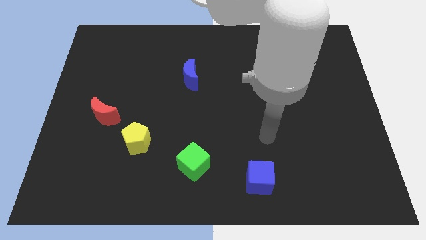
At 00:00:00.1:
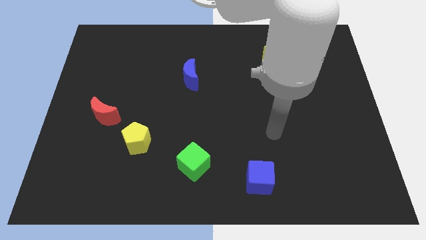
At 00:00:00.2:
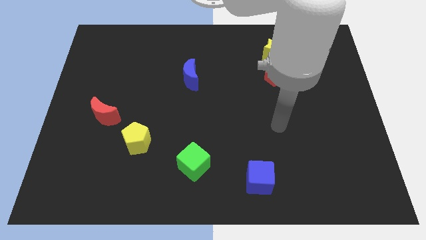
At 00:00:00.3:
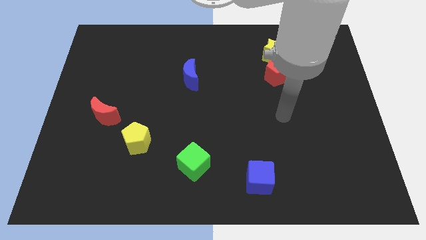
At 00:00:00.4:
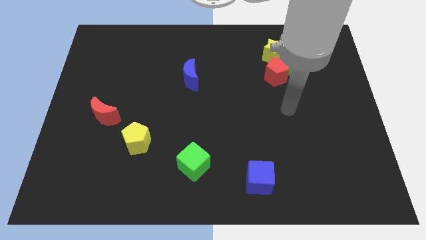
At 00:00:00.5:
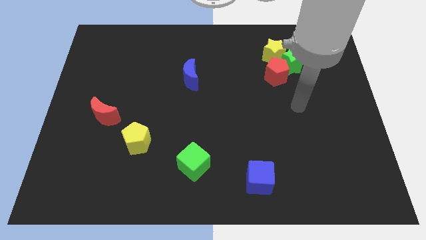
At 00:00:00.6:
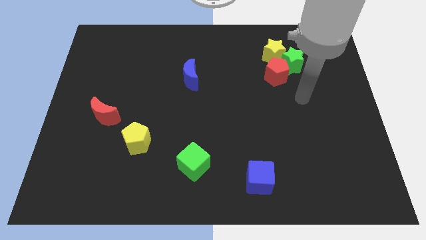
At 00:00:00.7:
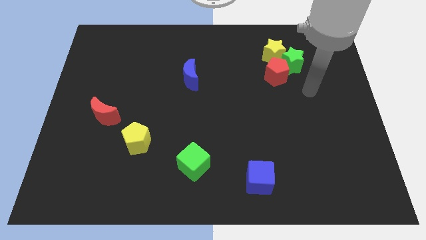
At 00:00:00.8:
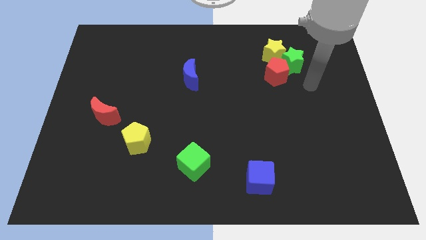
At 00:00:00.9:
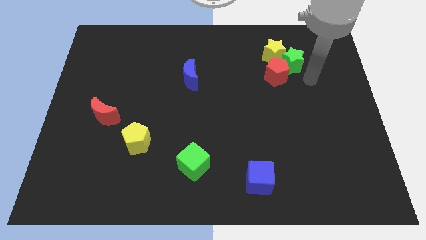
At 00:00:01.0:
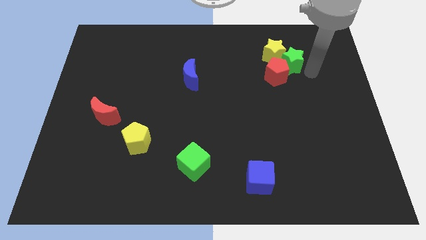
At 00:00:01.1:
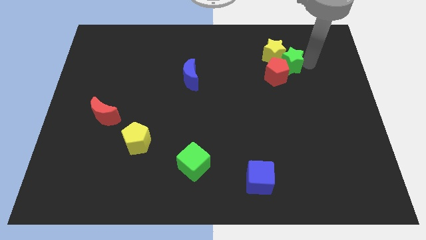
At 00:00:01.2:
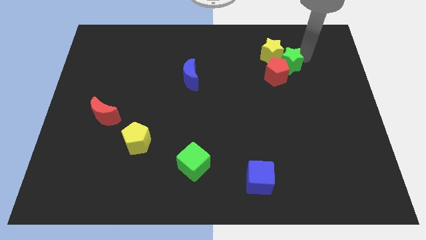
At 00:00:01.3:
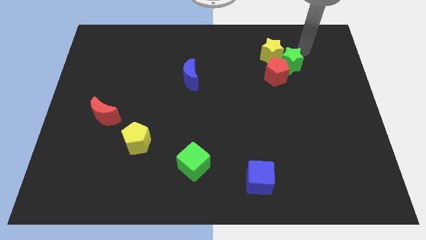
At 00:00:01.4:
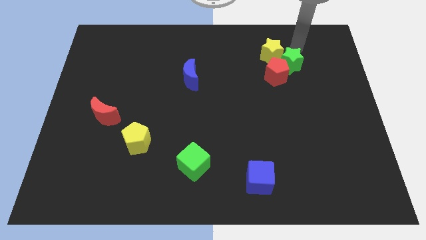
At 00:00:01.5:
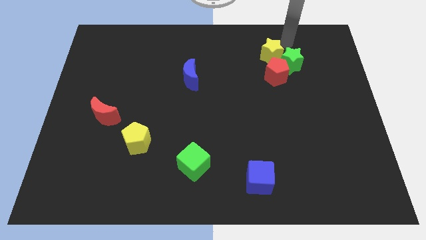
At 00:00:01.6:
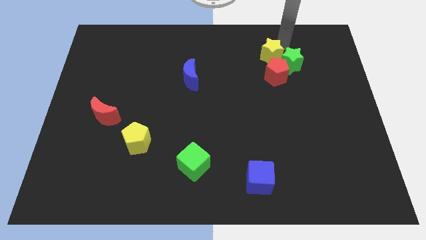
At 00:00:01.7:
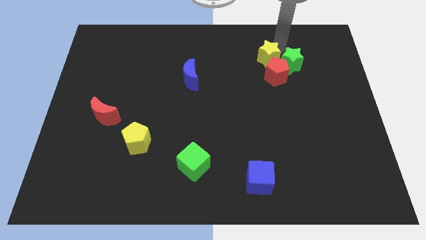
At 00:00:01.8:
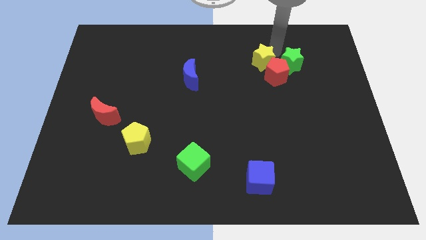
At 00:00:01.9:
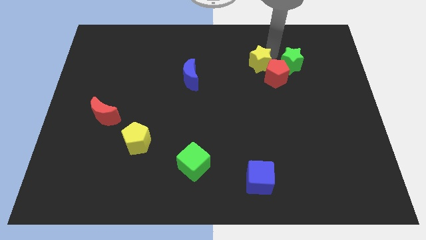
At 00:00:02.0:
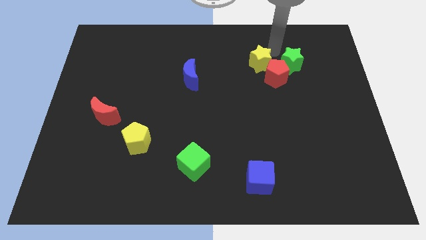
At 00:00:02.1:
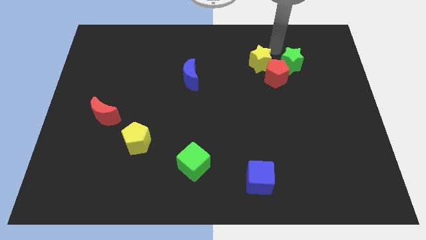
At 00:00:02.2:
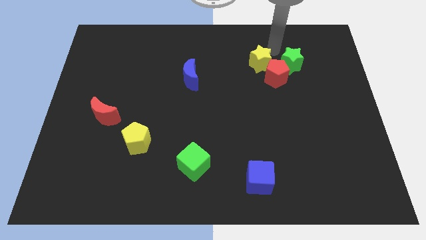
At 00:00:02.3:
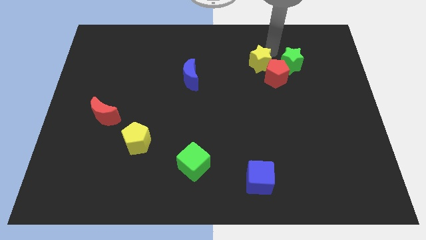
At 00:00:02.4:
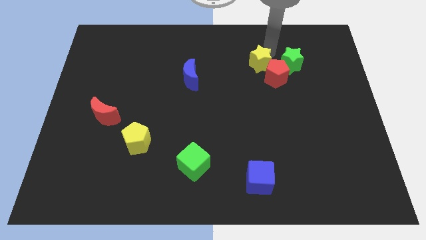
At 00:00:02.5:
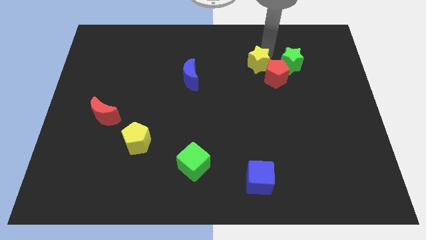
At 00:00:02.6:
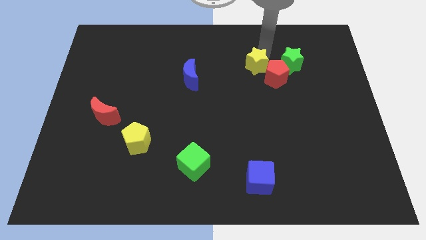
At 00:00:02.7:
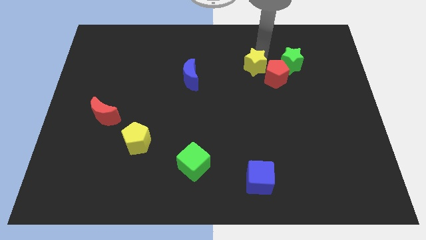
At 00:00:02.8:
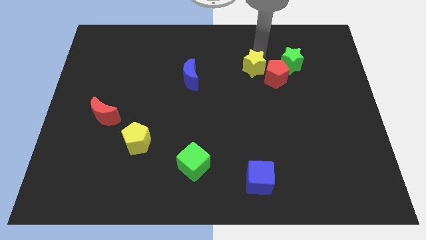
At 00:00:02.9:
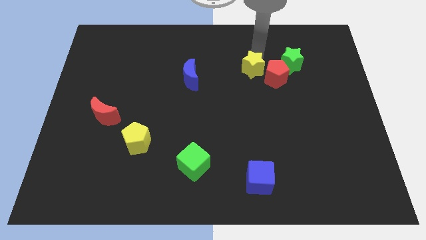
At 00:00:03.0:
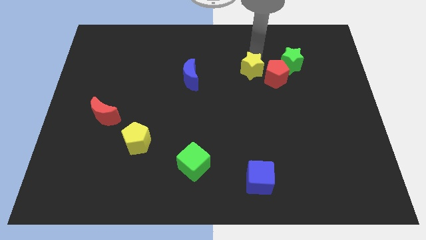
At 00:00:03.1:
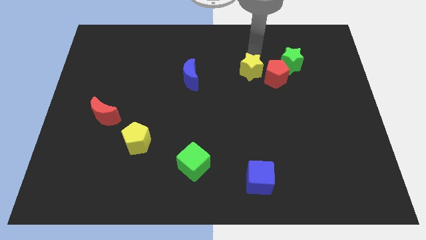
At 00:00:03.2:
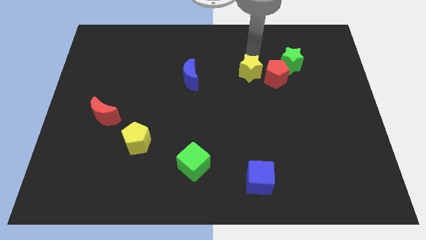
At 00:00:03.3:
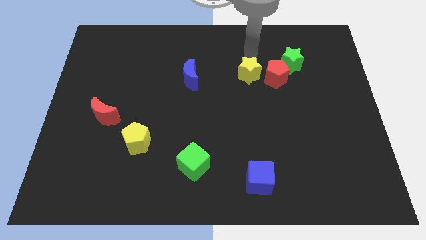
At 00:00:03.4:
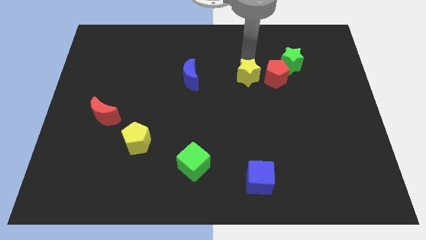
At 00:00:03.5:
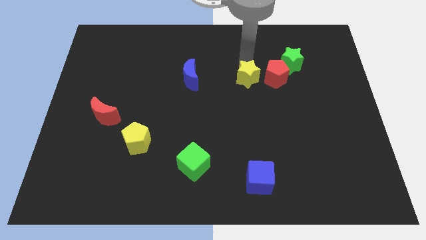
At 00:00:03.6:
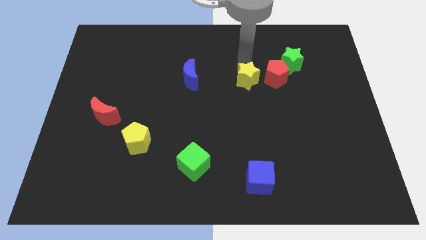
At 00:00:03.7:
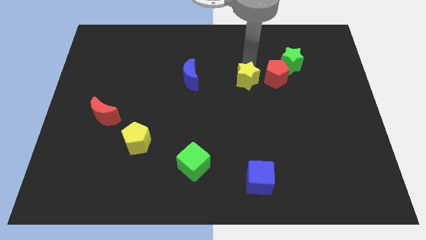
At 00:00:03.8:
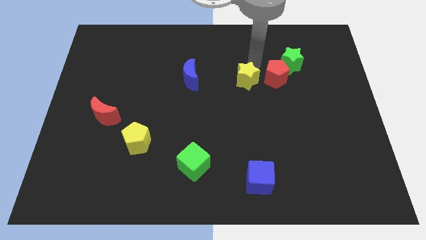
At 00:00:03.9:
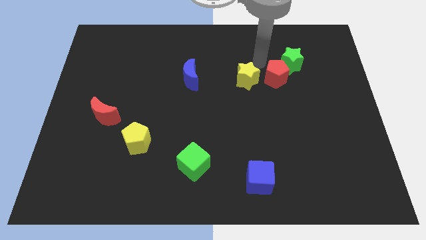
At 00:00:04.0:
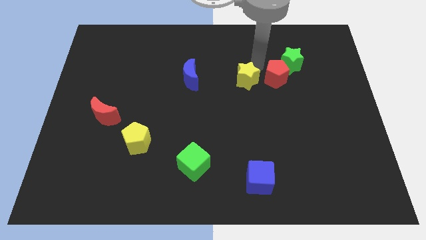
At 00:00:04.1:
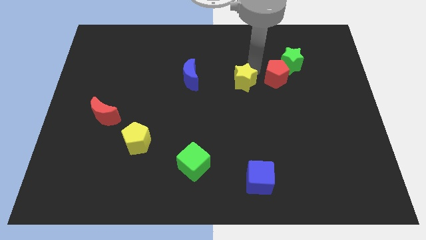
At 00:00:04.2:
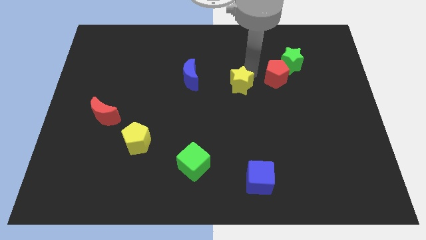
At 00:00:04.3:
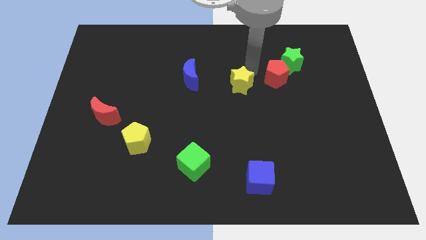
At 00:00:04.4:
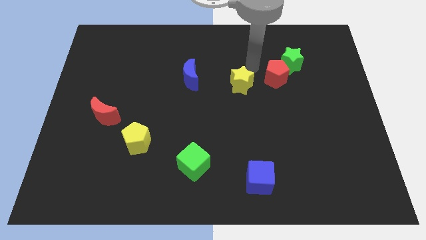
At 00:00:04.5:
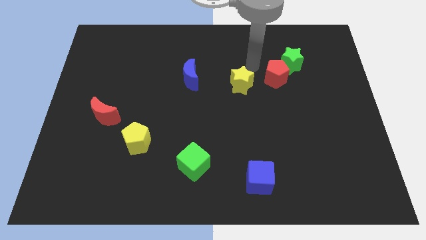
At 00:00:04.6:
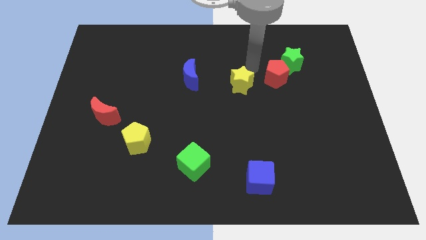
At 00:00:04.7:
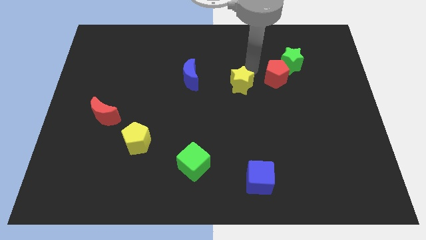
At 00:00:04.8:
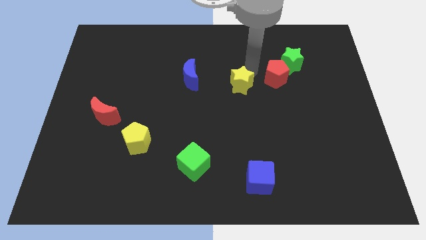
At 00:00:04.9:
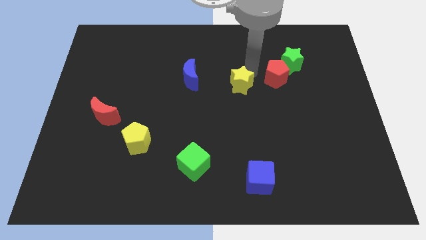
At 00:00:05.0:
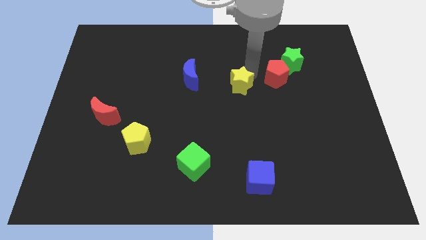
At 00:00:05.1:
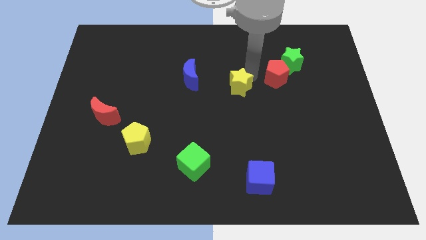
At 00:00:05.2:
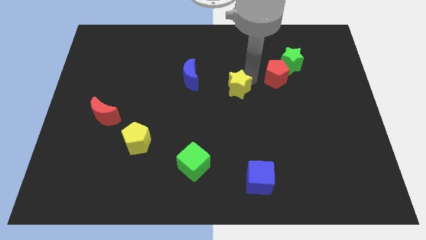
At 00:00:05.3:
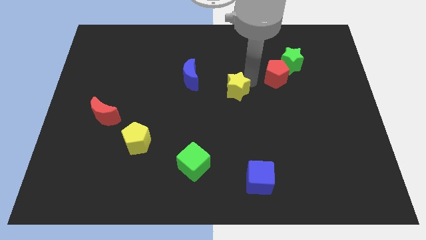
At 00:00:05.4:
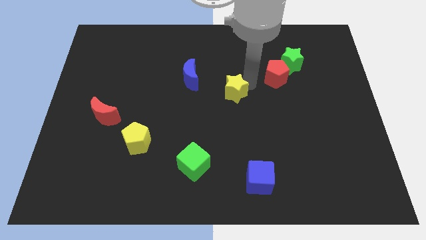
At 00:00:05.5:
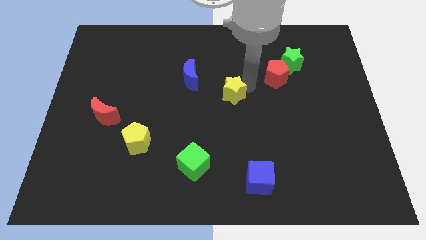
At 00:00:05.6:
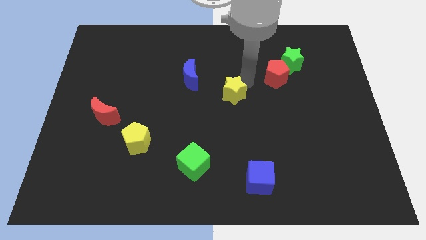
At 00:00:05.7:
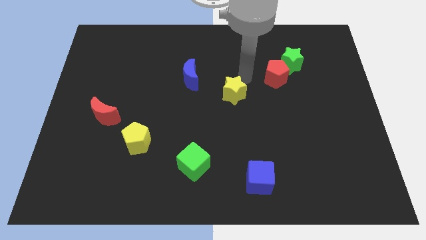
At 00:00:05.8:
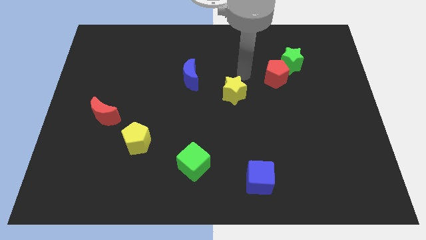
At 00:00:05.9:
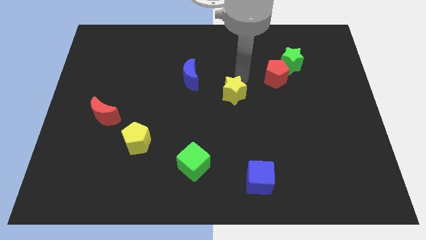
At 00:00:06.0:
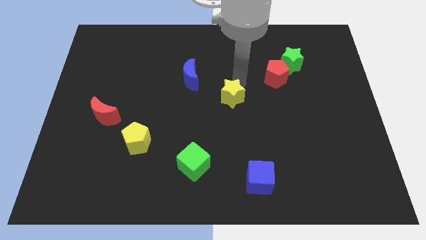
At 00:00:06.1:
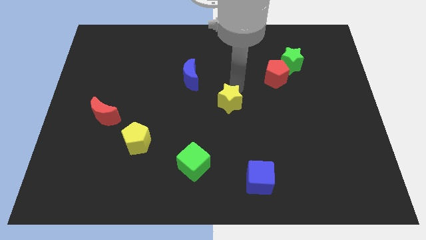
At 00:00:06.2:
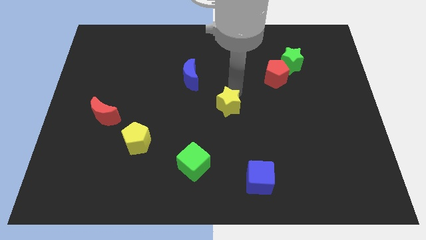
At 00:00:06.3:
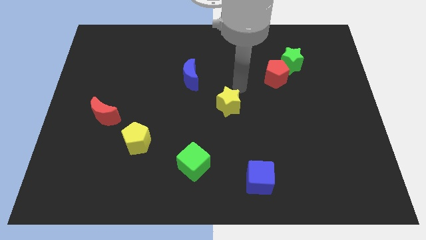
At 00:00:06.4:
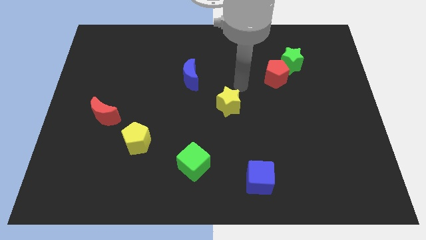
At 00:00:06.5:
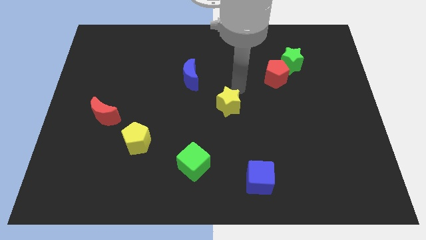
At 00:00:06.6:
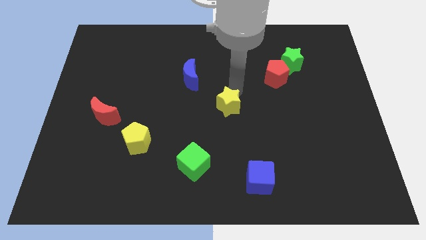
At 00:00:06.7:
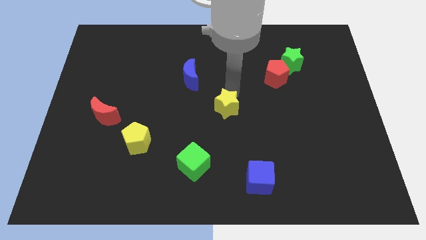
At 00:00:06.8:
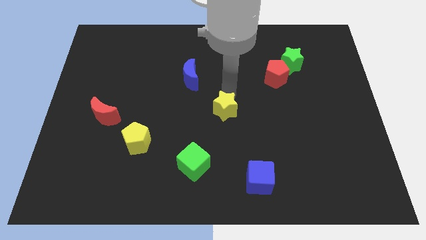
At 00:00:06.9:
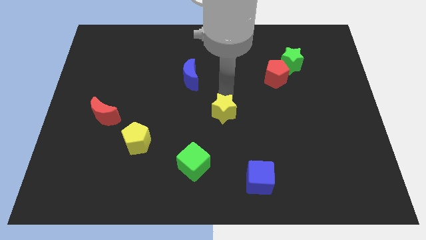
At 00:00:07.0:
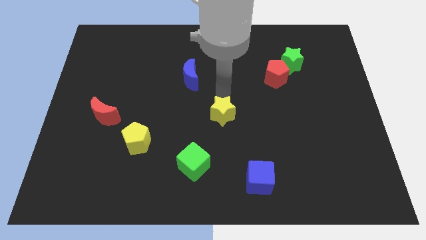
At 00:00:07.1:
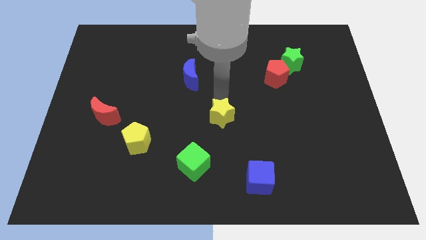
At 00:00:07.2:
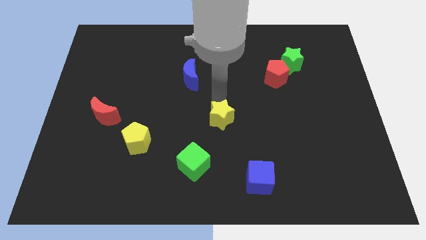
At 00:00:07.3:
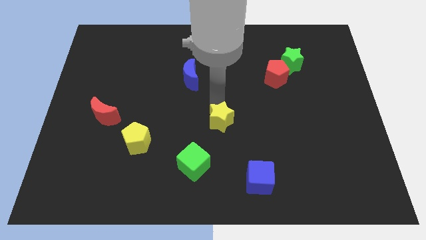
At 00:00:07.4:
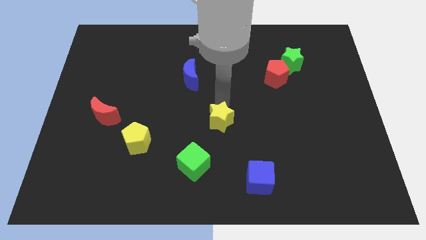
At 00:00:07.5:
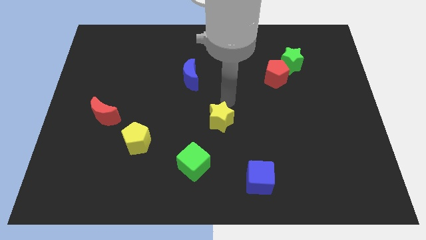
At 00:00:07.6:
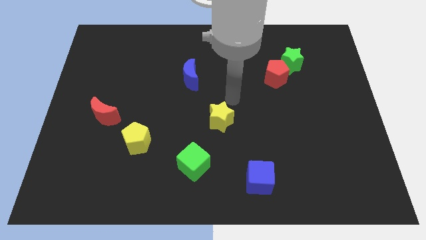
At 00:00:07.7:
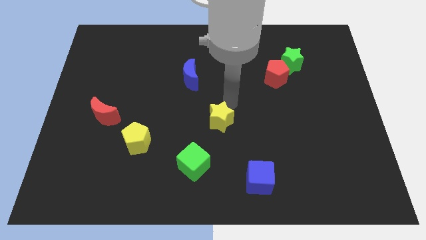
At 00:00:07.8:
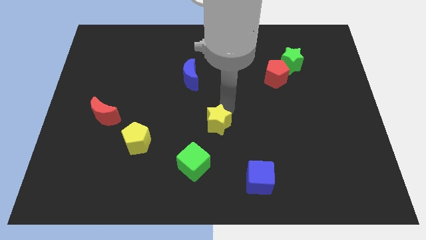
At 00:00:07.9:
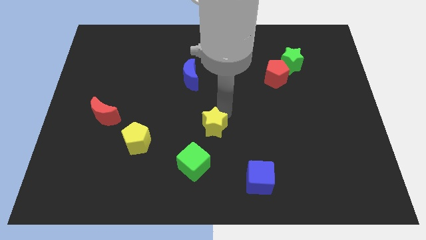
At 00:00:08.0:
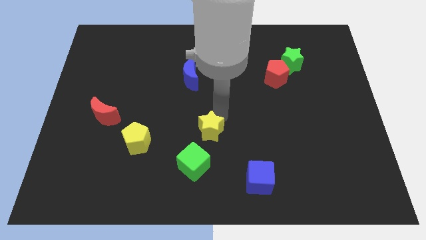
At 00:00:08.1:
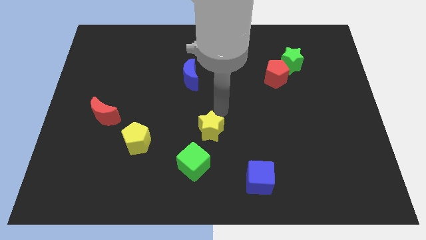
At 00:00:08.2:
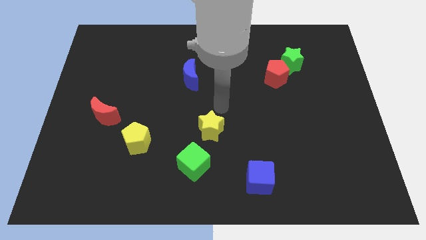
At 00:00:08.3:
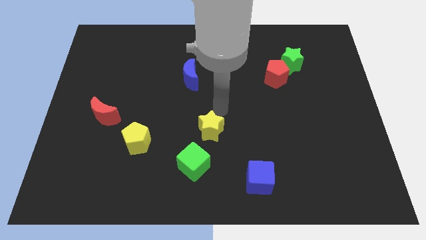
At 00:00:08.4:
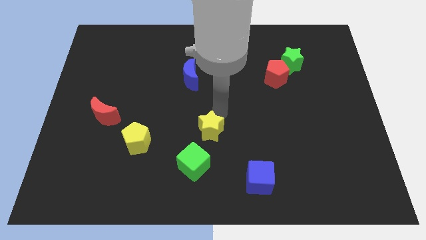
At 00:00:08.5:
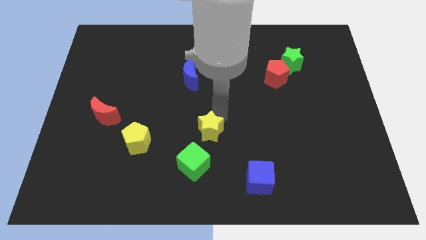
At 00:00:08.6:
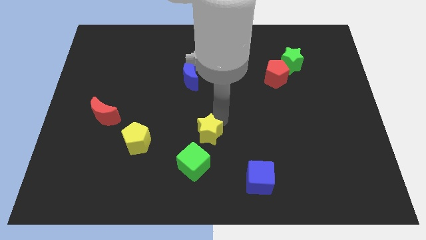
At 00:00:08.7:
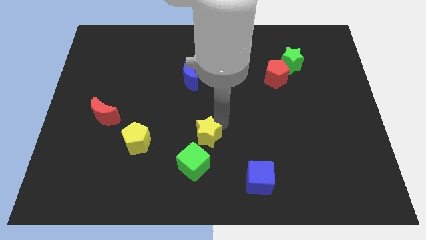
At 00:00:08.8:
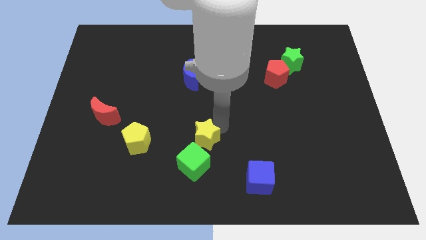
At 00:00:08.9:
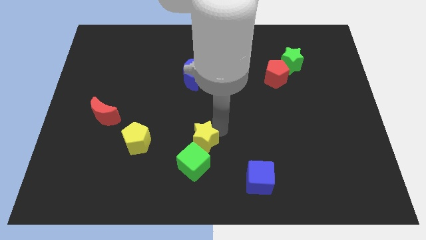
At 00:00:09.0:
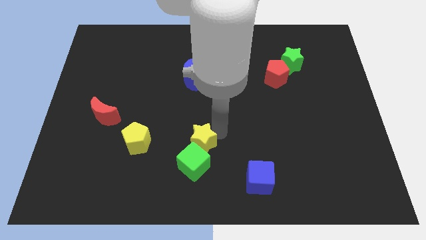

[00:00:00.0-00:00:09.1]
move the yellow star next to the green cube
